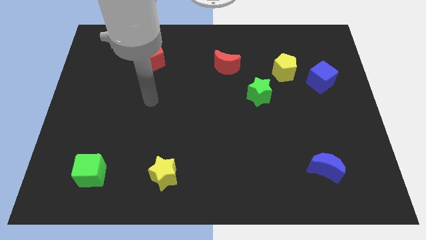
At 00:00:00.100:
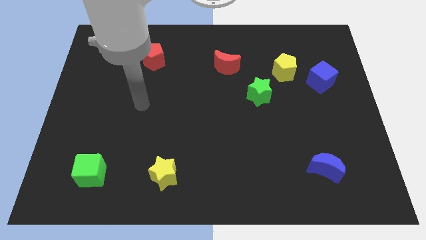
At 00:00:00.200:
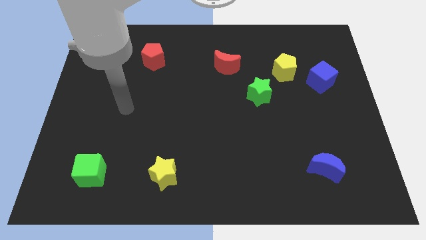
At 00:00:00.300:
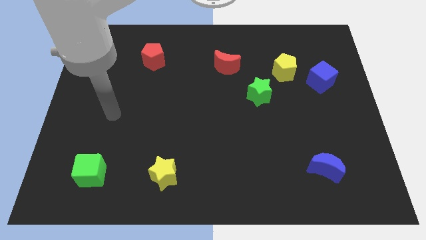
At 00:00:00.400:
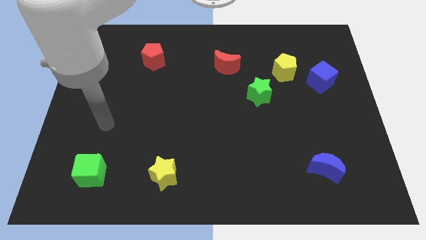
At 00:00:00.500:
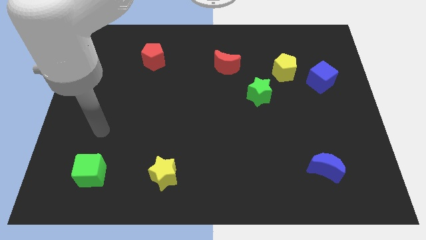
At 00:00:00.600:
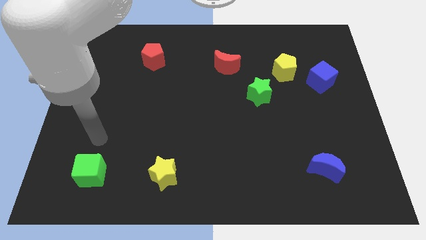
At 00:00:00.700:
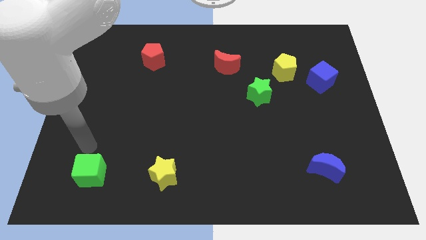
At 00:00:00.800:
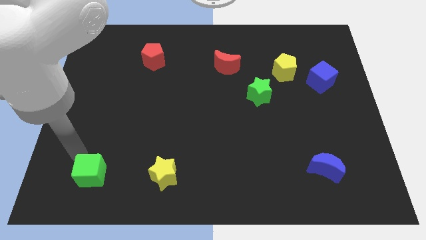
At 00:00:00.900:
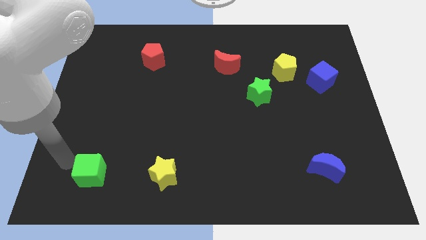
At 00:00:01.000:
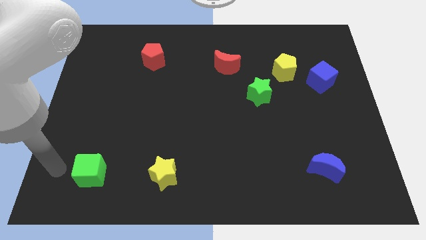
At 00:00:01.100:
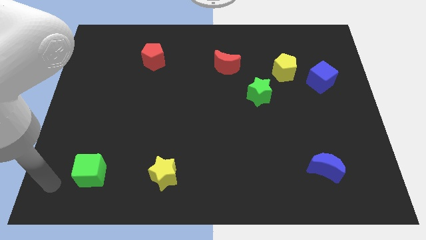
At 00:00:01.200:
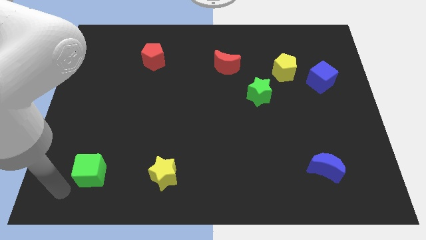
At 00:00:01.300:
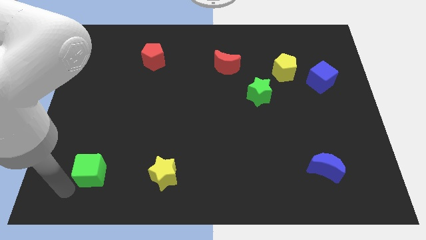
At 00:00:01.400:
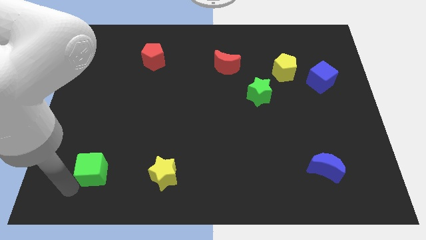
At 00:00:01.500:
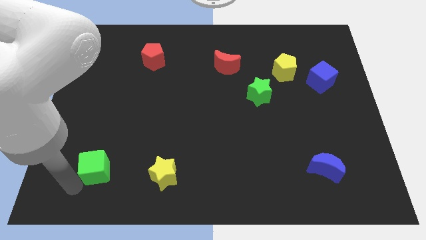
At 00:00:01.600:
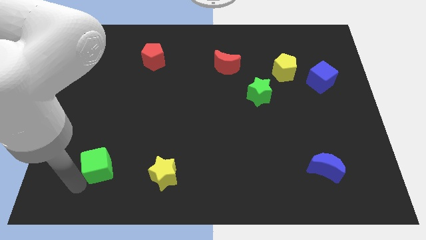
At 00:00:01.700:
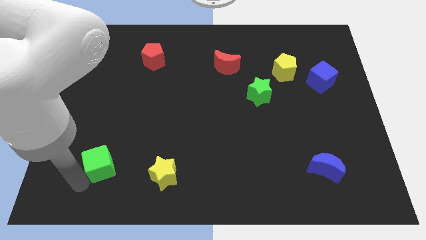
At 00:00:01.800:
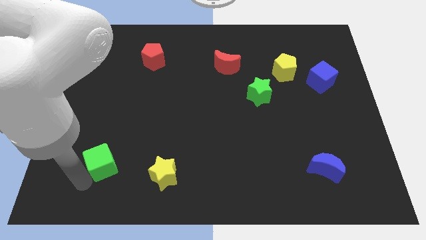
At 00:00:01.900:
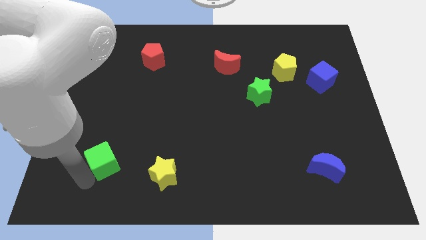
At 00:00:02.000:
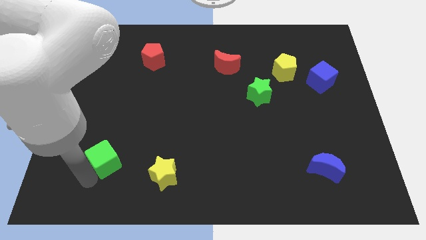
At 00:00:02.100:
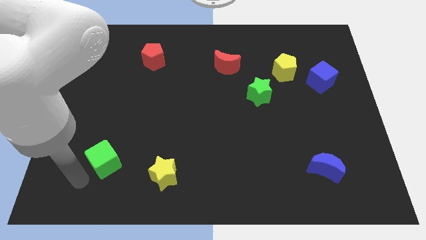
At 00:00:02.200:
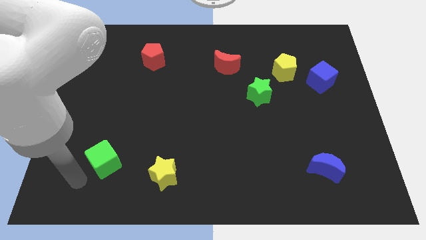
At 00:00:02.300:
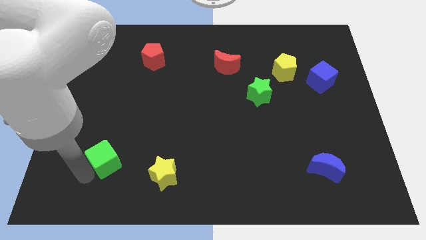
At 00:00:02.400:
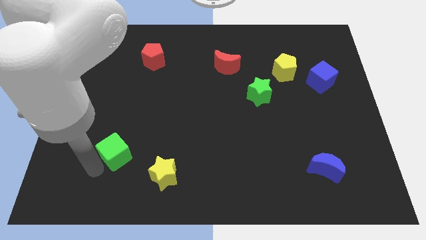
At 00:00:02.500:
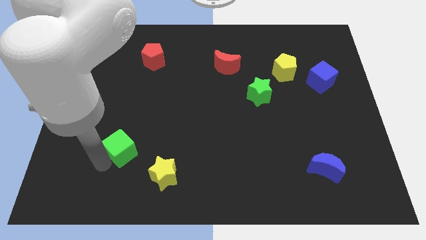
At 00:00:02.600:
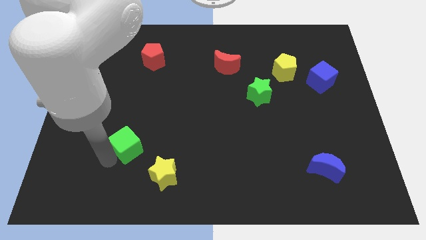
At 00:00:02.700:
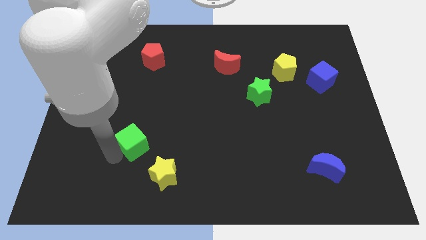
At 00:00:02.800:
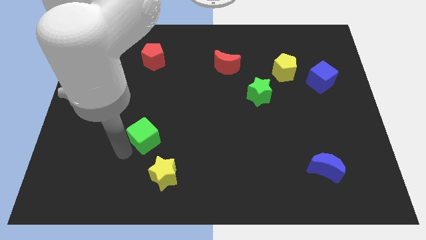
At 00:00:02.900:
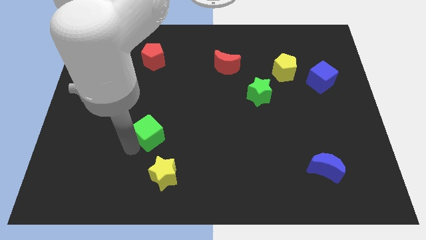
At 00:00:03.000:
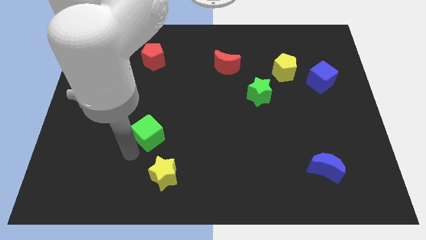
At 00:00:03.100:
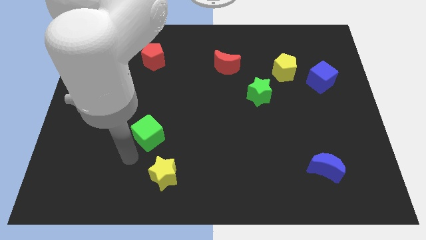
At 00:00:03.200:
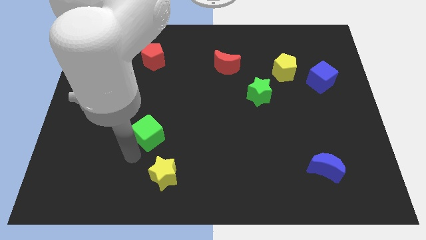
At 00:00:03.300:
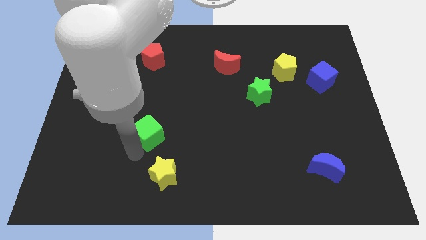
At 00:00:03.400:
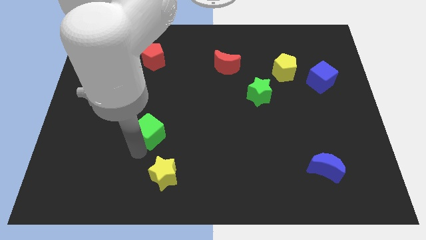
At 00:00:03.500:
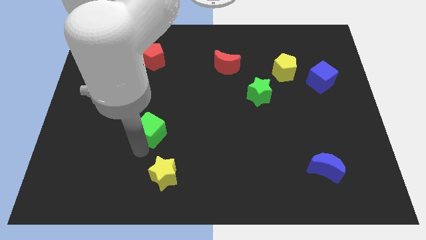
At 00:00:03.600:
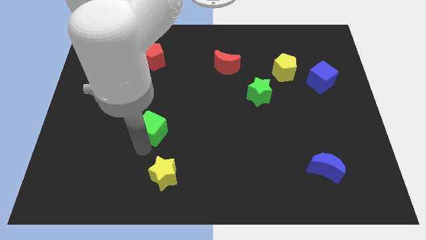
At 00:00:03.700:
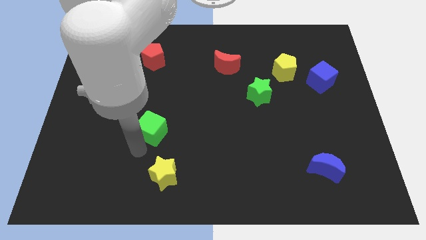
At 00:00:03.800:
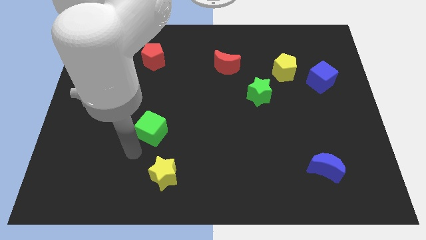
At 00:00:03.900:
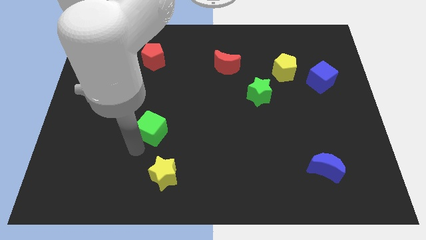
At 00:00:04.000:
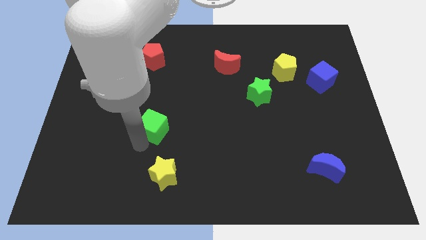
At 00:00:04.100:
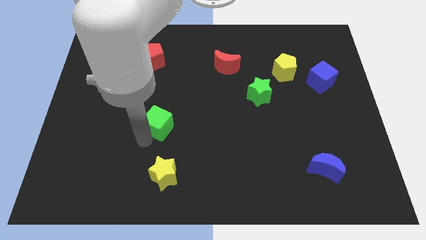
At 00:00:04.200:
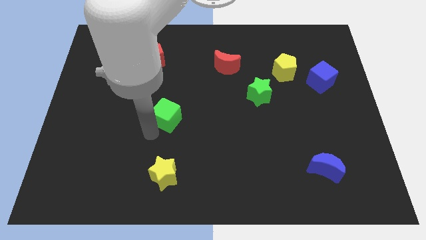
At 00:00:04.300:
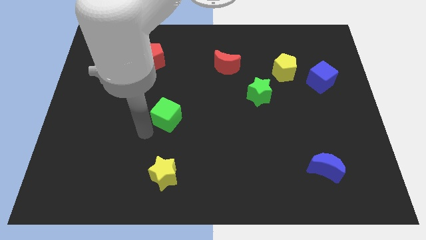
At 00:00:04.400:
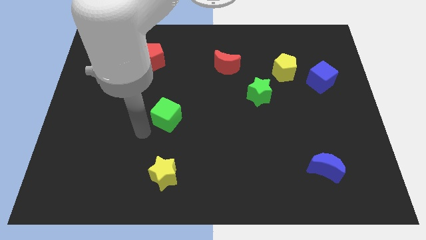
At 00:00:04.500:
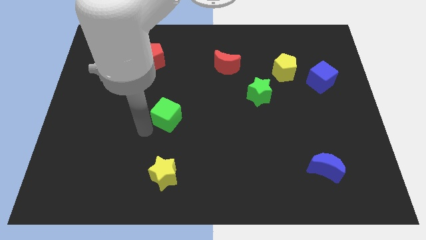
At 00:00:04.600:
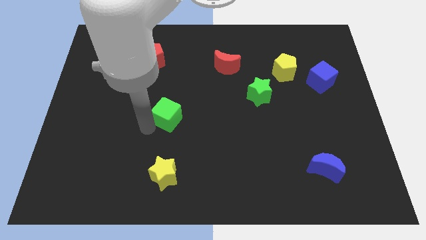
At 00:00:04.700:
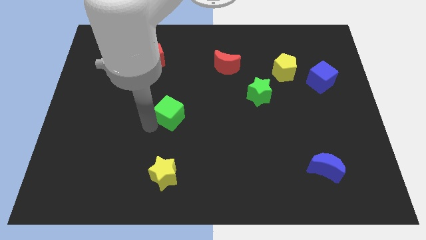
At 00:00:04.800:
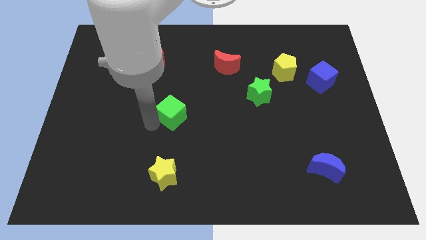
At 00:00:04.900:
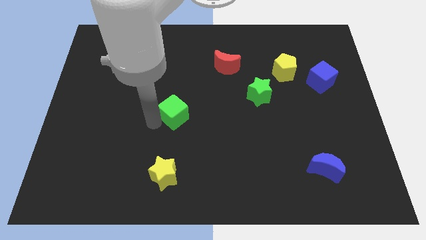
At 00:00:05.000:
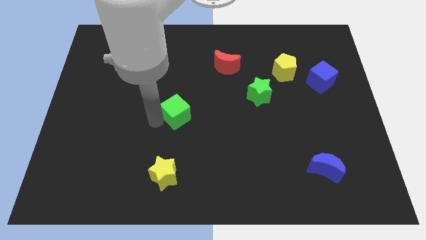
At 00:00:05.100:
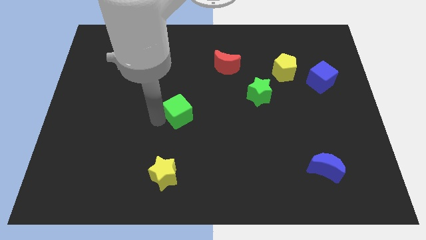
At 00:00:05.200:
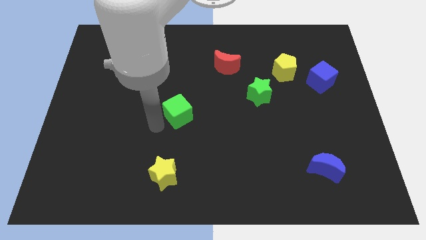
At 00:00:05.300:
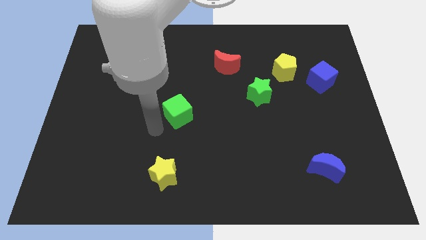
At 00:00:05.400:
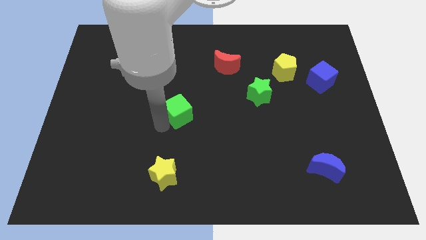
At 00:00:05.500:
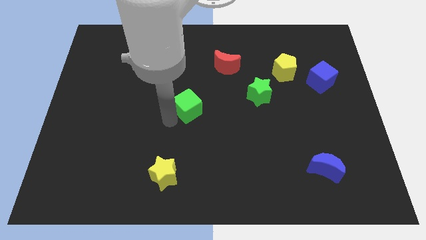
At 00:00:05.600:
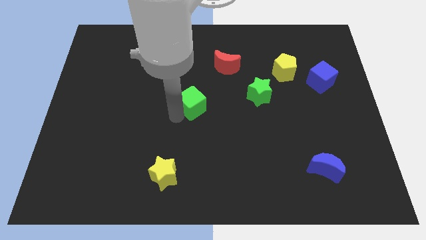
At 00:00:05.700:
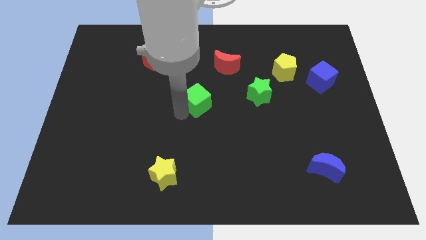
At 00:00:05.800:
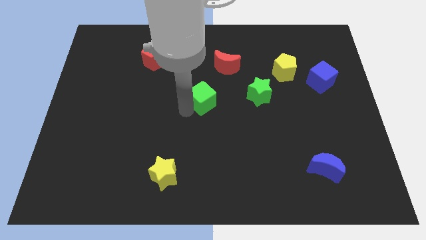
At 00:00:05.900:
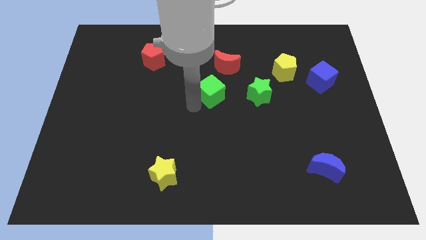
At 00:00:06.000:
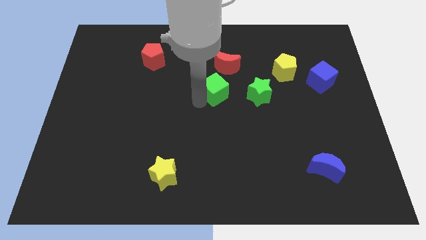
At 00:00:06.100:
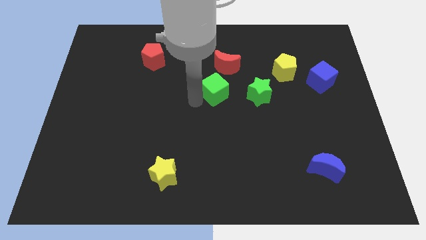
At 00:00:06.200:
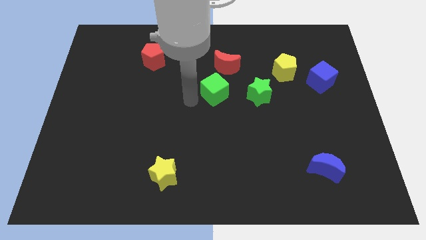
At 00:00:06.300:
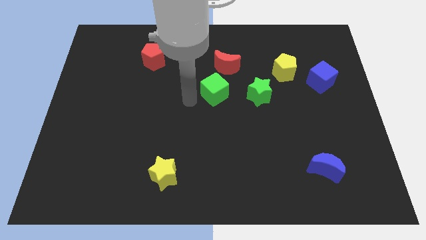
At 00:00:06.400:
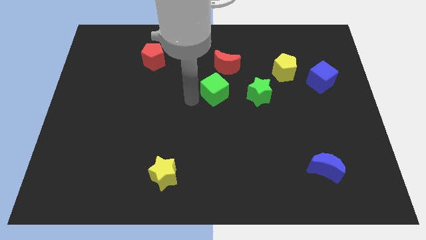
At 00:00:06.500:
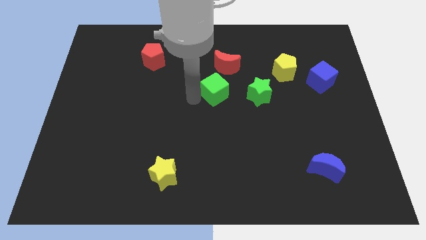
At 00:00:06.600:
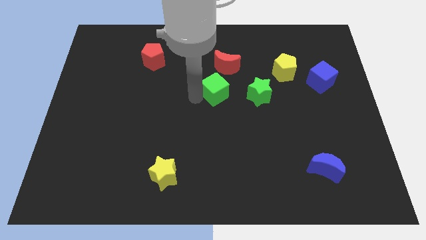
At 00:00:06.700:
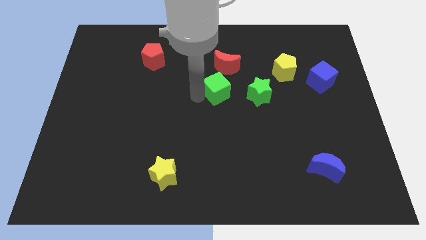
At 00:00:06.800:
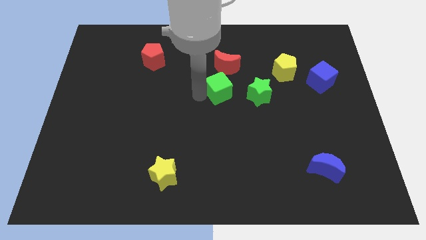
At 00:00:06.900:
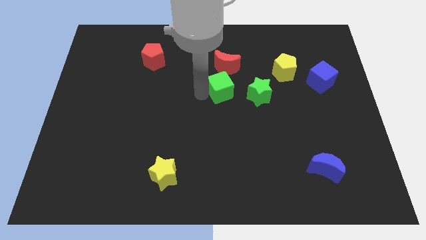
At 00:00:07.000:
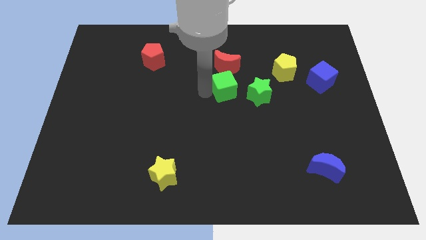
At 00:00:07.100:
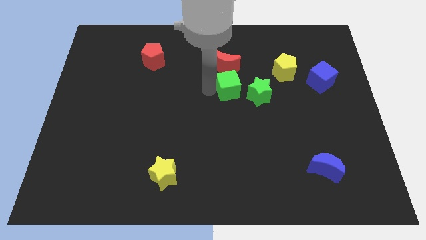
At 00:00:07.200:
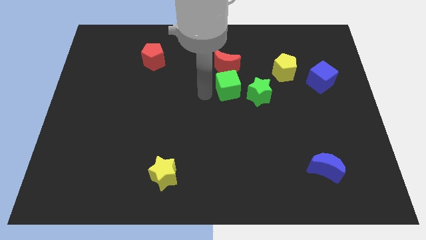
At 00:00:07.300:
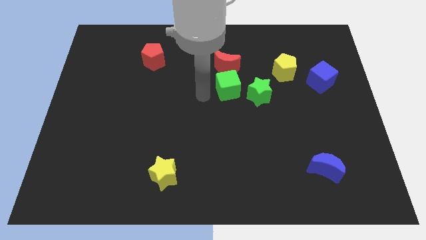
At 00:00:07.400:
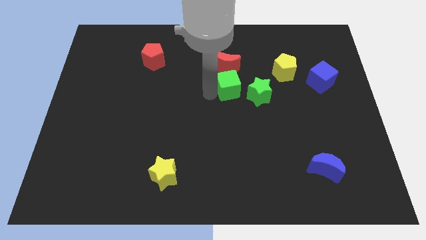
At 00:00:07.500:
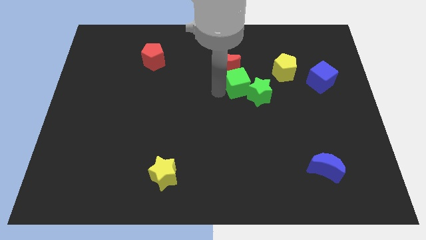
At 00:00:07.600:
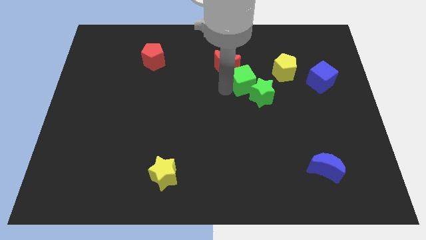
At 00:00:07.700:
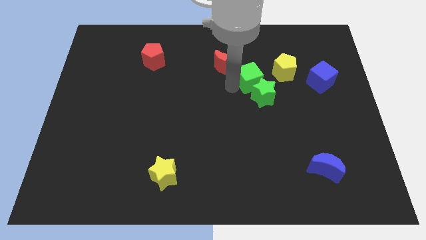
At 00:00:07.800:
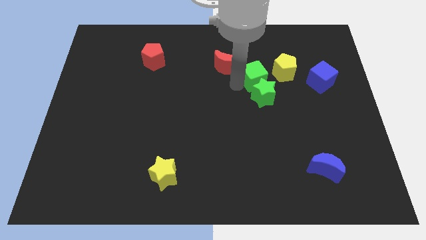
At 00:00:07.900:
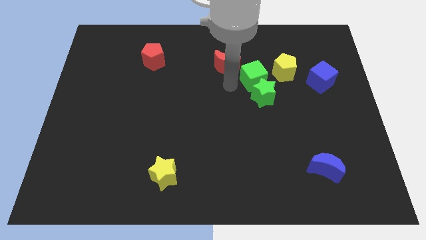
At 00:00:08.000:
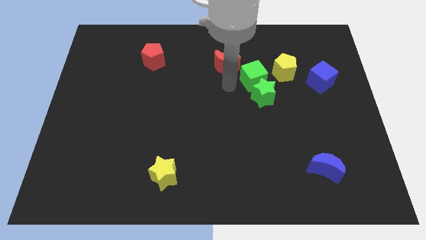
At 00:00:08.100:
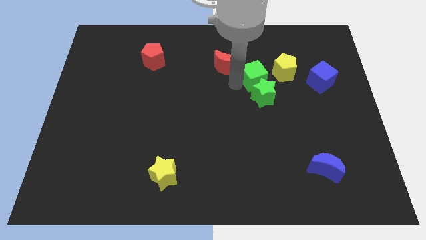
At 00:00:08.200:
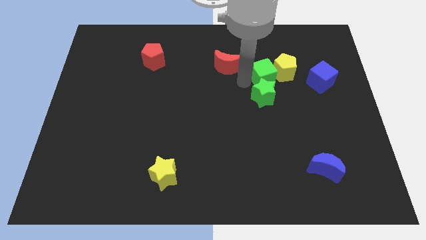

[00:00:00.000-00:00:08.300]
slide the green cube to the yellow pentagon
